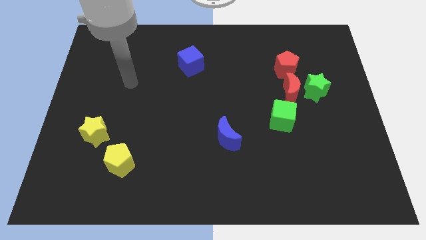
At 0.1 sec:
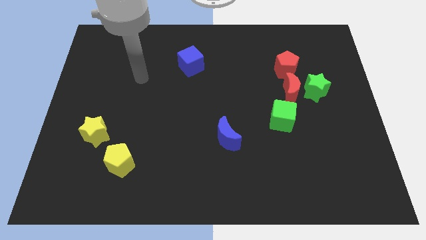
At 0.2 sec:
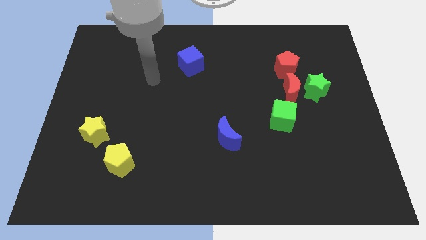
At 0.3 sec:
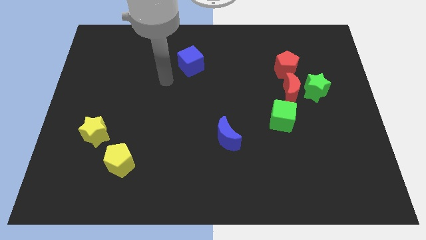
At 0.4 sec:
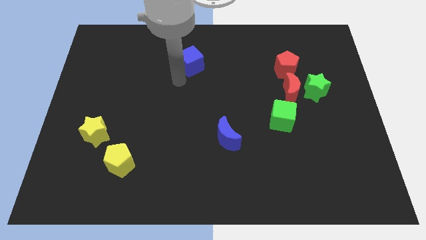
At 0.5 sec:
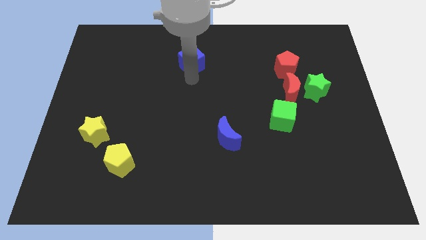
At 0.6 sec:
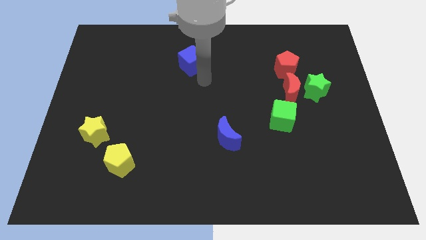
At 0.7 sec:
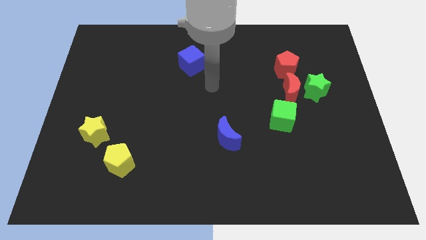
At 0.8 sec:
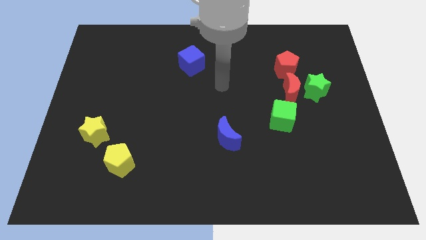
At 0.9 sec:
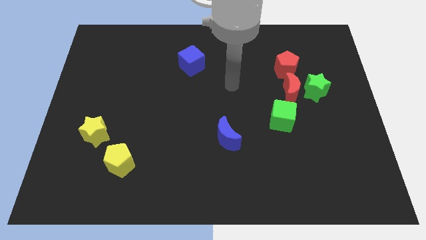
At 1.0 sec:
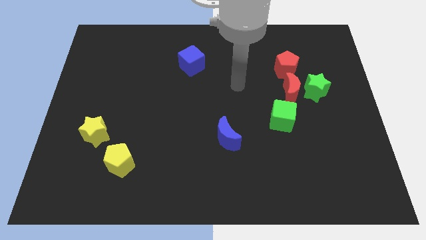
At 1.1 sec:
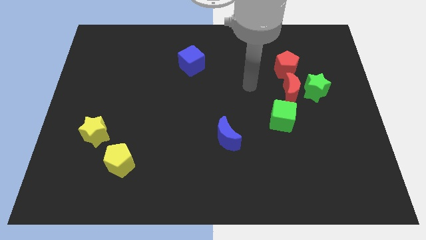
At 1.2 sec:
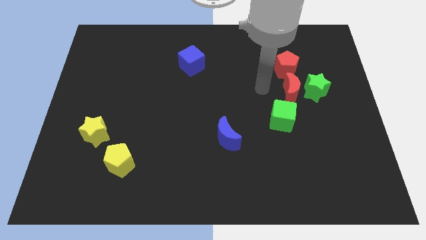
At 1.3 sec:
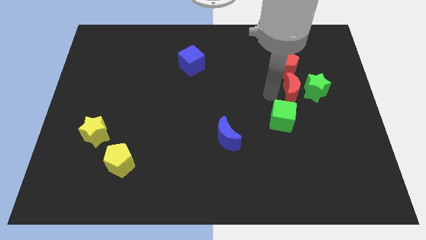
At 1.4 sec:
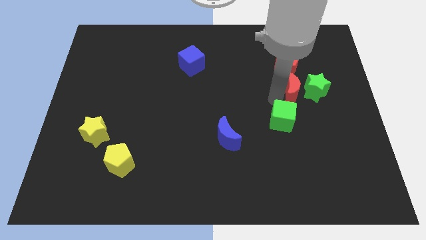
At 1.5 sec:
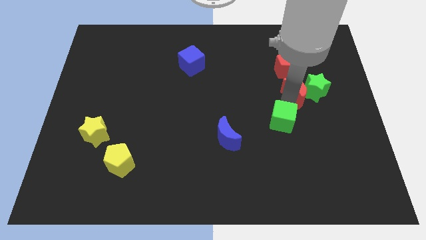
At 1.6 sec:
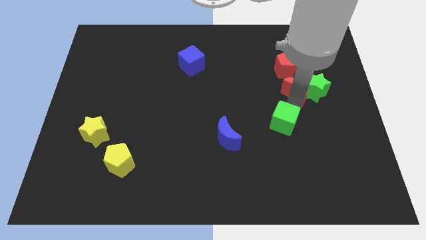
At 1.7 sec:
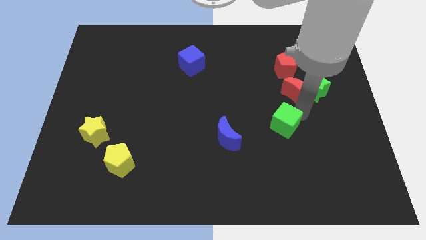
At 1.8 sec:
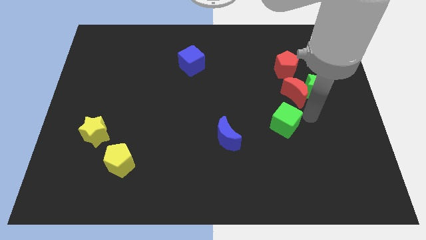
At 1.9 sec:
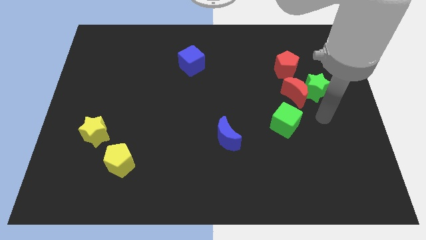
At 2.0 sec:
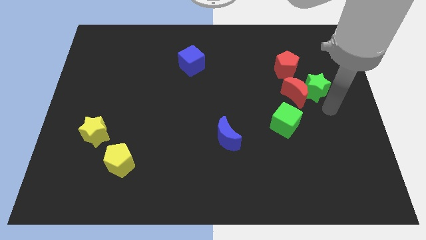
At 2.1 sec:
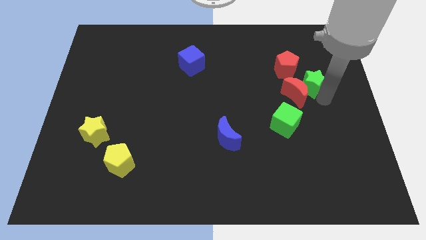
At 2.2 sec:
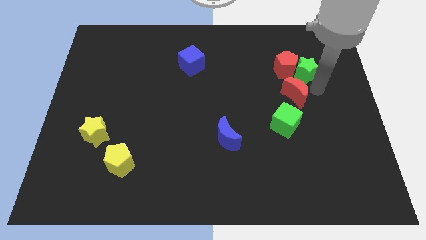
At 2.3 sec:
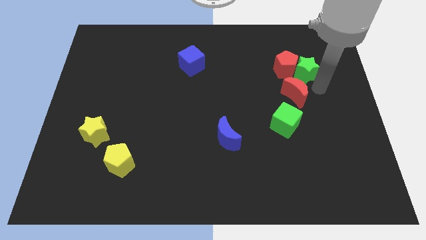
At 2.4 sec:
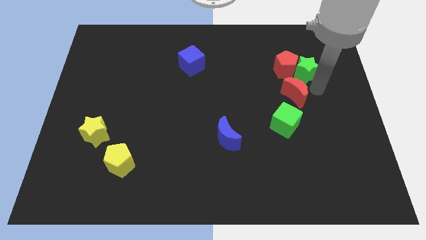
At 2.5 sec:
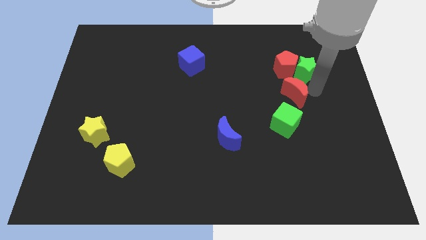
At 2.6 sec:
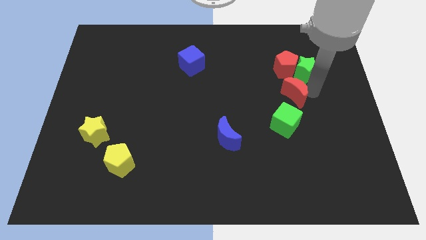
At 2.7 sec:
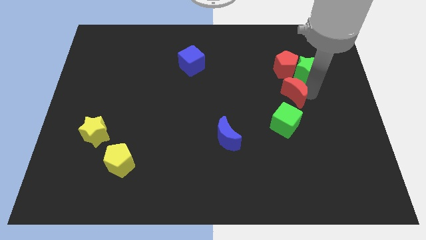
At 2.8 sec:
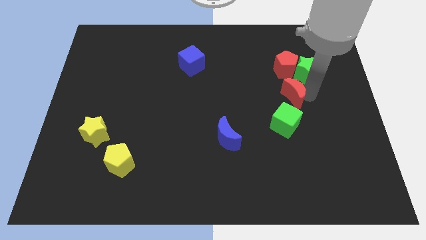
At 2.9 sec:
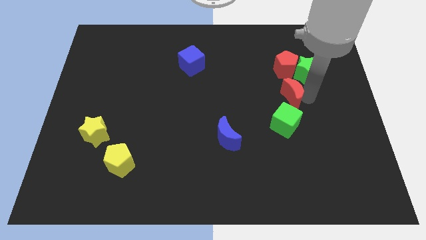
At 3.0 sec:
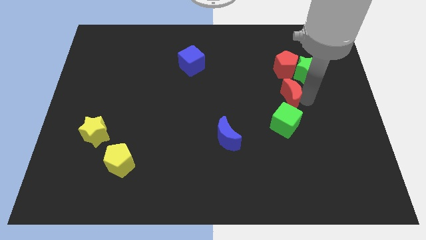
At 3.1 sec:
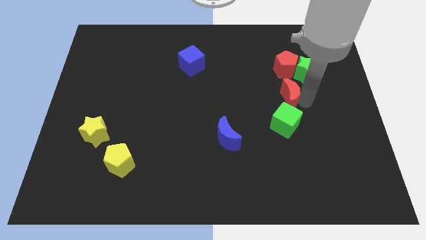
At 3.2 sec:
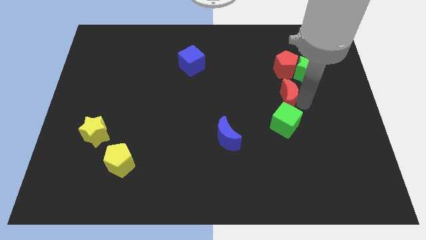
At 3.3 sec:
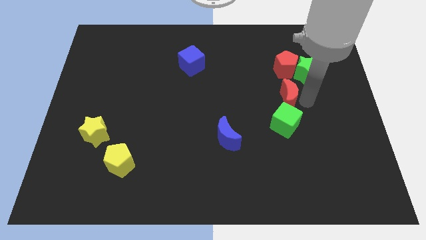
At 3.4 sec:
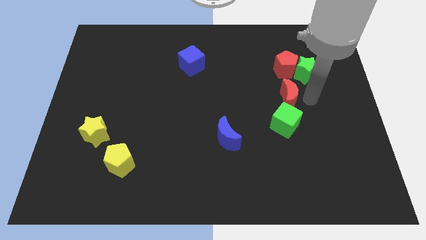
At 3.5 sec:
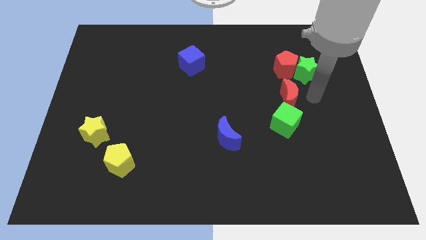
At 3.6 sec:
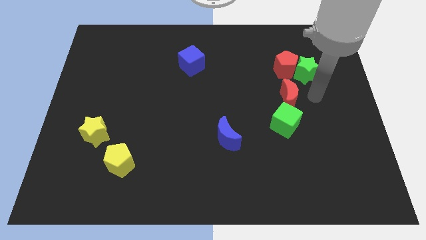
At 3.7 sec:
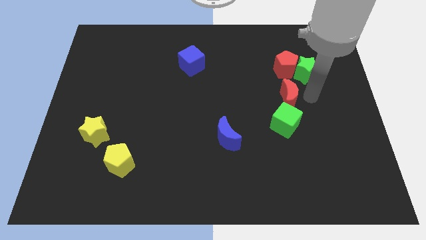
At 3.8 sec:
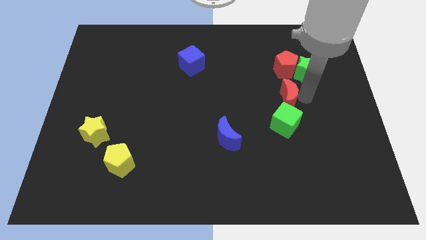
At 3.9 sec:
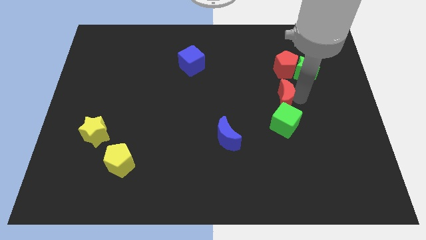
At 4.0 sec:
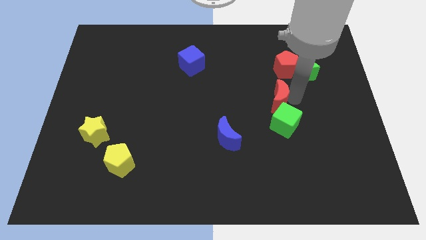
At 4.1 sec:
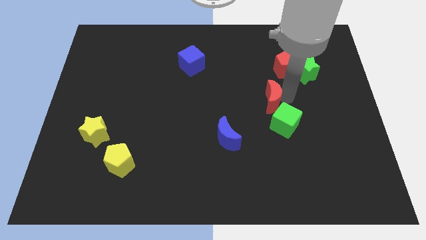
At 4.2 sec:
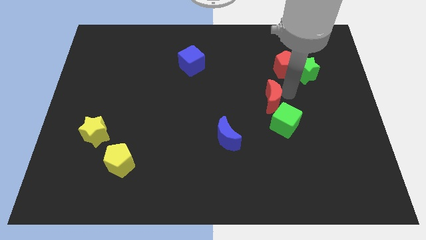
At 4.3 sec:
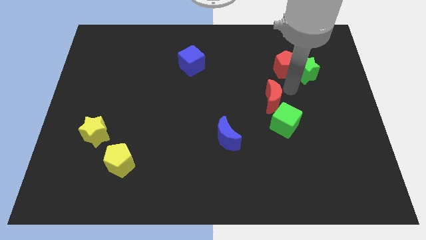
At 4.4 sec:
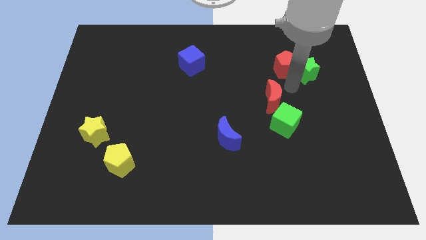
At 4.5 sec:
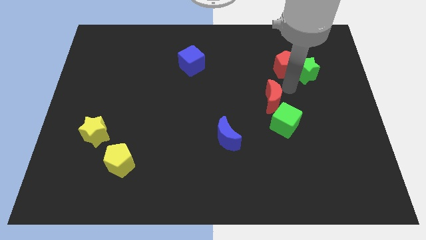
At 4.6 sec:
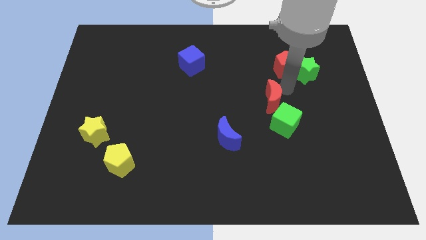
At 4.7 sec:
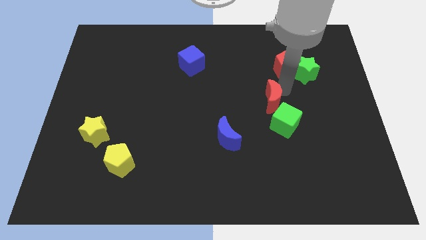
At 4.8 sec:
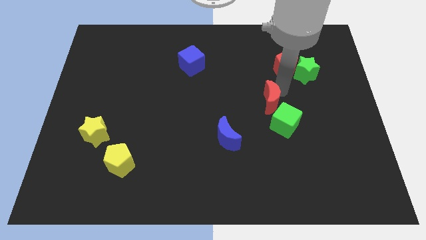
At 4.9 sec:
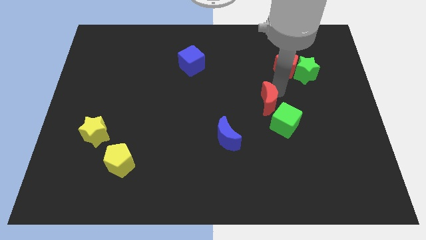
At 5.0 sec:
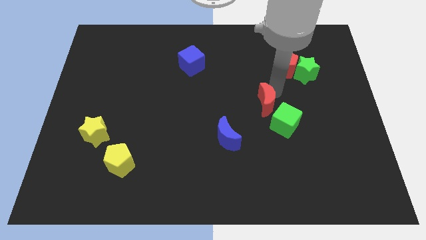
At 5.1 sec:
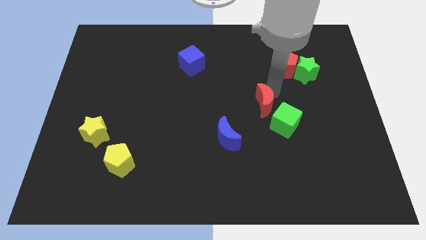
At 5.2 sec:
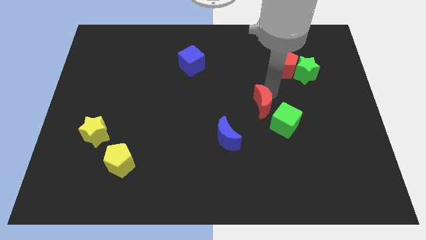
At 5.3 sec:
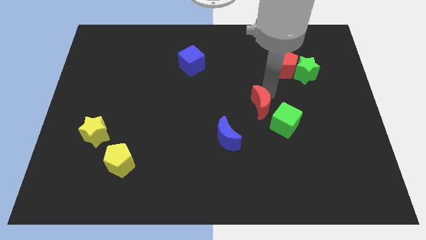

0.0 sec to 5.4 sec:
separate the red moon from the group of blocks

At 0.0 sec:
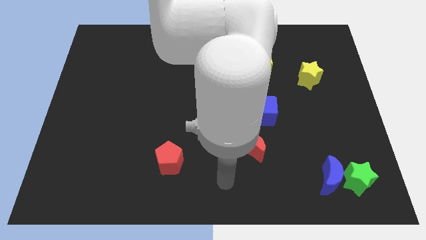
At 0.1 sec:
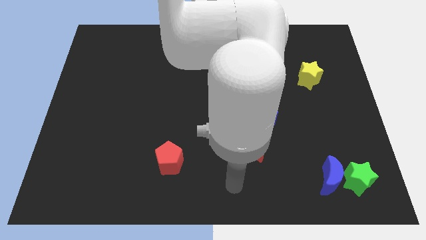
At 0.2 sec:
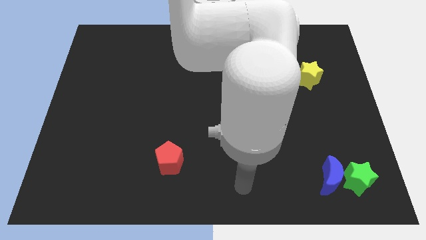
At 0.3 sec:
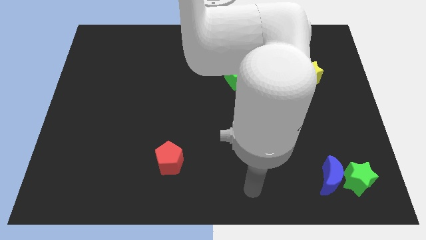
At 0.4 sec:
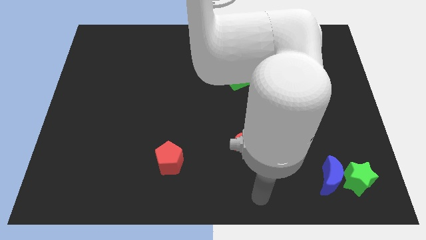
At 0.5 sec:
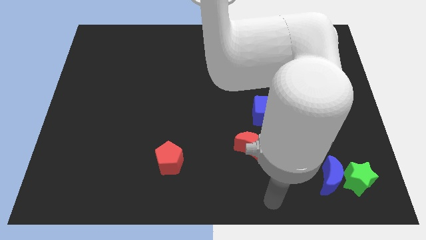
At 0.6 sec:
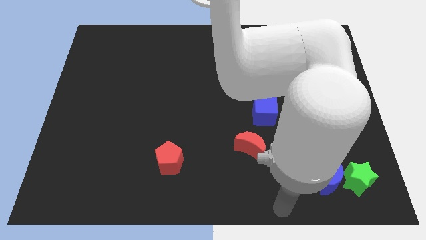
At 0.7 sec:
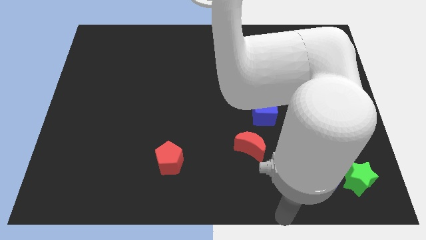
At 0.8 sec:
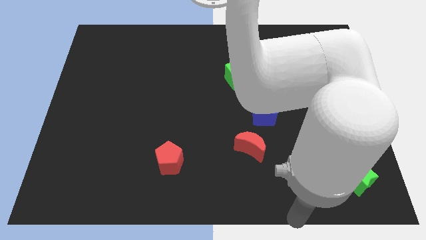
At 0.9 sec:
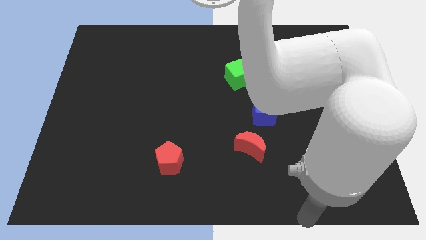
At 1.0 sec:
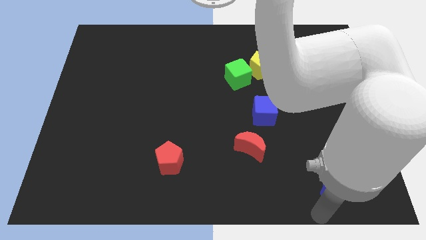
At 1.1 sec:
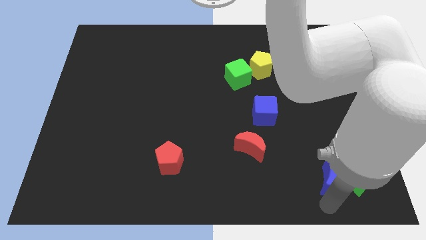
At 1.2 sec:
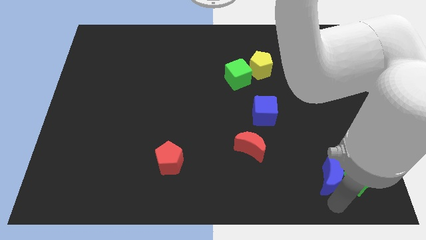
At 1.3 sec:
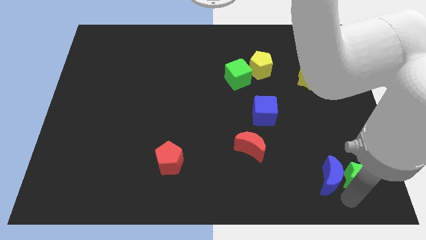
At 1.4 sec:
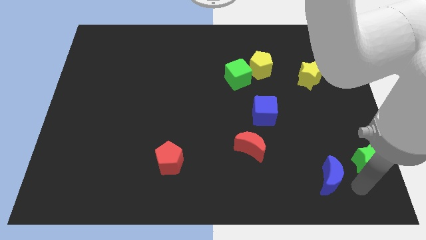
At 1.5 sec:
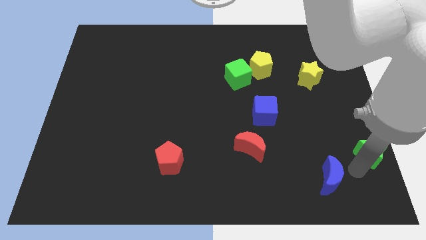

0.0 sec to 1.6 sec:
separate the blue moon from the green star
